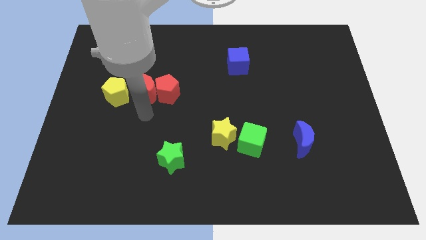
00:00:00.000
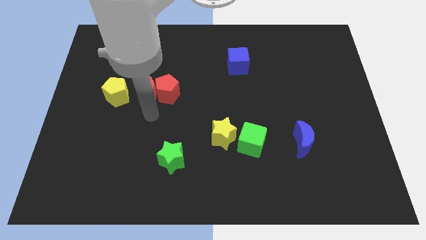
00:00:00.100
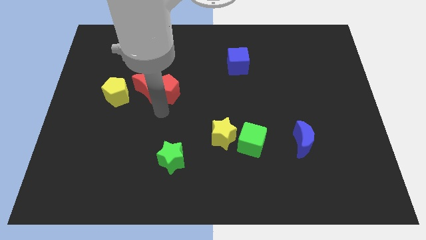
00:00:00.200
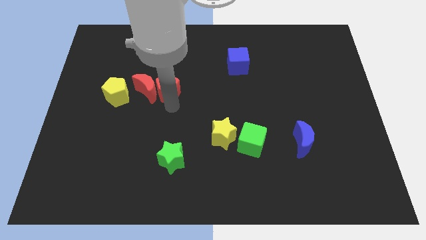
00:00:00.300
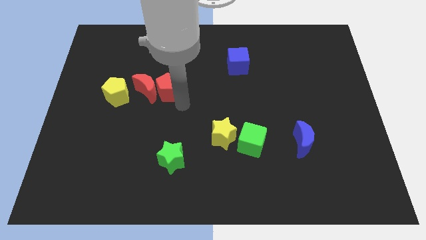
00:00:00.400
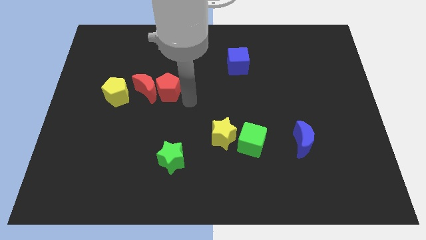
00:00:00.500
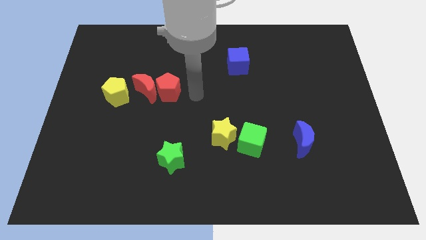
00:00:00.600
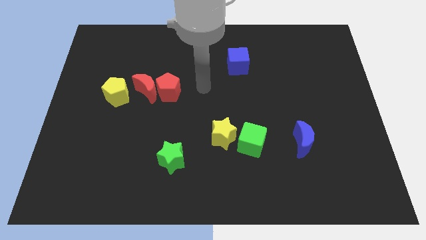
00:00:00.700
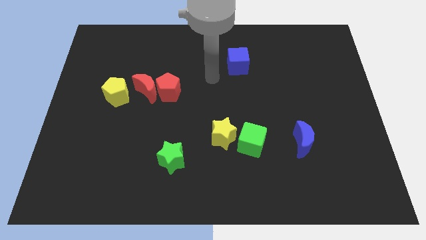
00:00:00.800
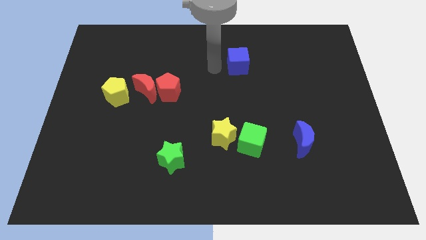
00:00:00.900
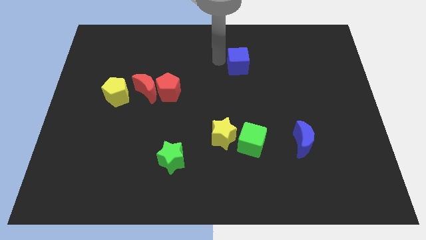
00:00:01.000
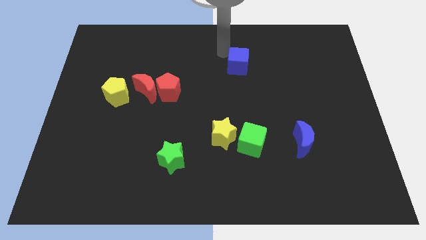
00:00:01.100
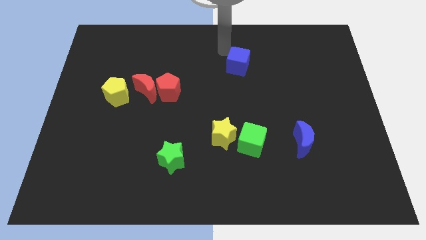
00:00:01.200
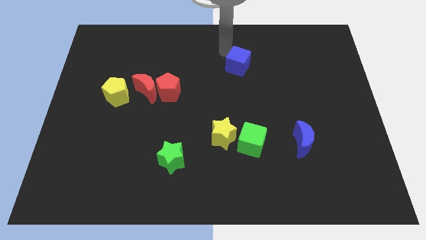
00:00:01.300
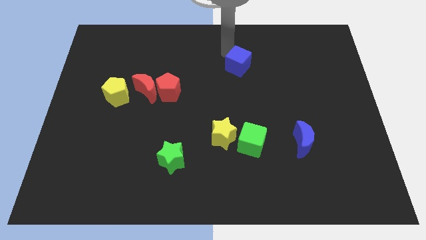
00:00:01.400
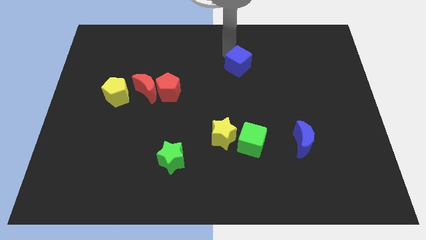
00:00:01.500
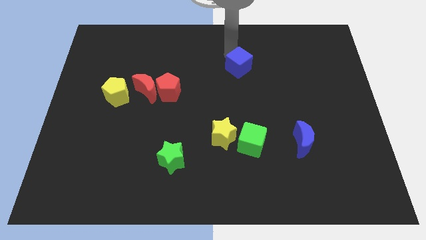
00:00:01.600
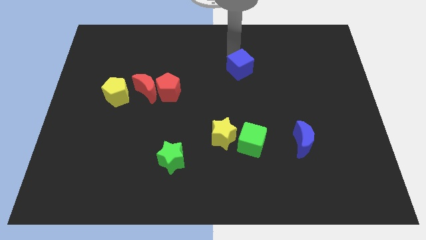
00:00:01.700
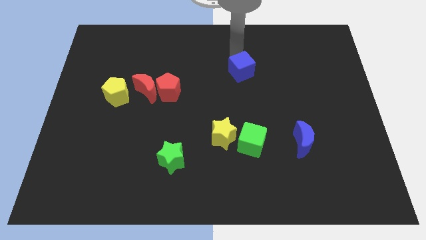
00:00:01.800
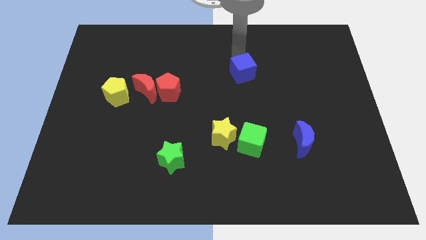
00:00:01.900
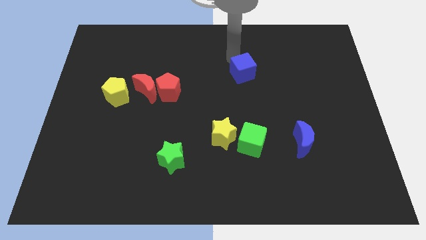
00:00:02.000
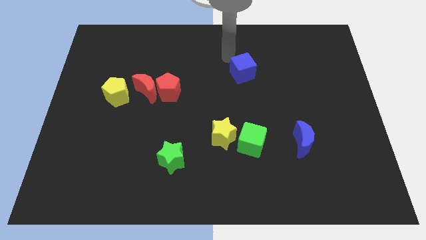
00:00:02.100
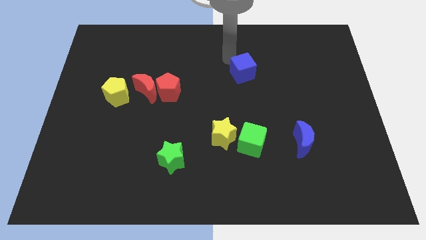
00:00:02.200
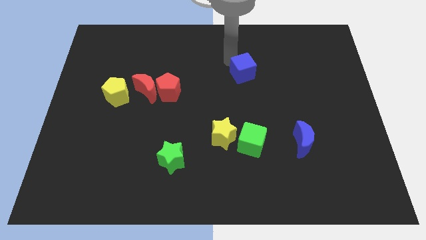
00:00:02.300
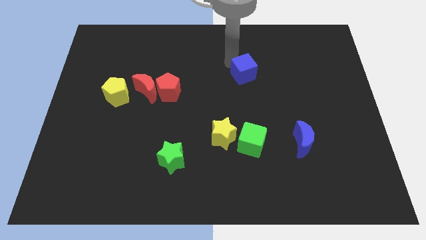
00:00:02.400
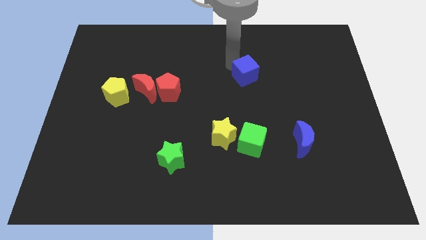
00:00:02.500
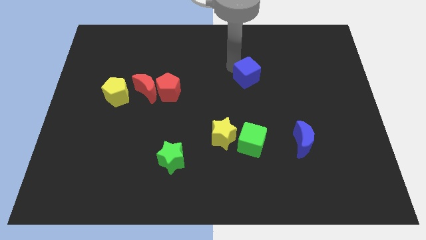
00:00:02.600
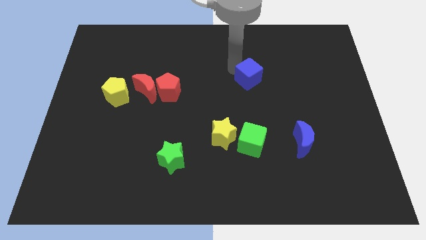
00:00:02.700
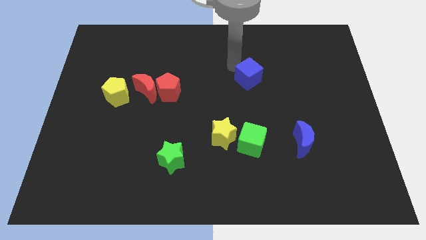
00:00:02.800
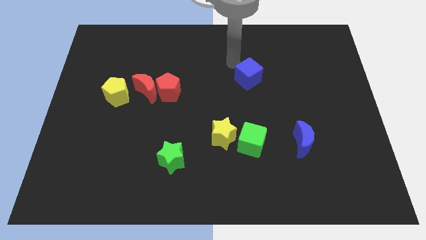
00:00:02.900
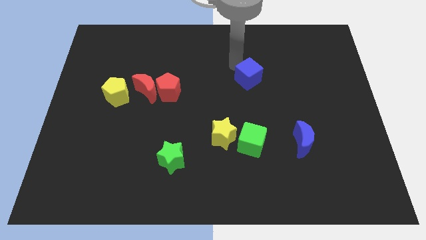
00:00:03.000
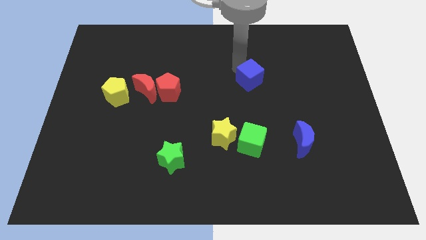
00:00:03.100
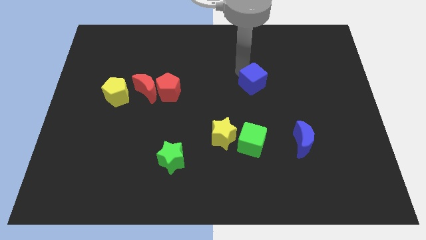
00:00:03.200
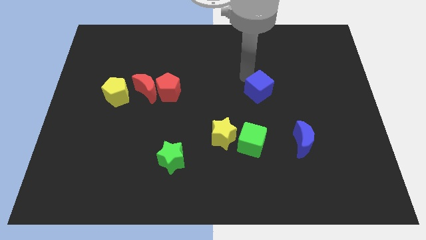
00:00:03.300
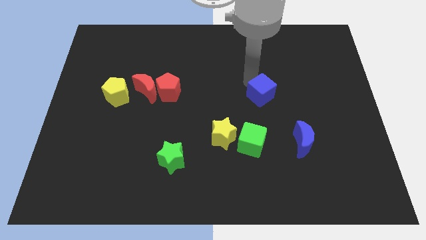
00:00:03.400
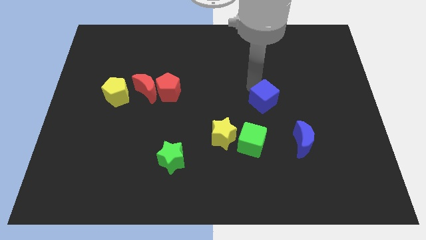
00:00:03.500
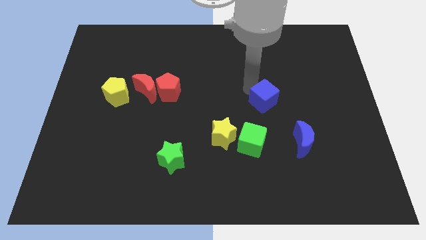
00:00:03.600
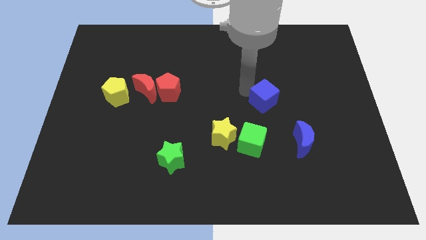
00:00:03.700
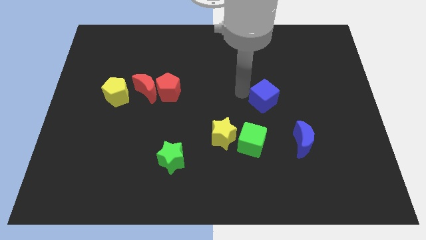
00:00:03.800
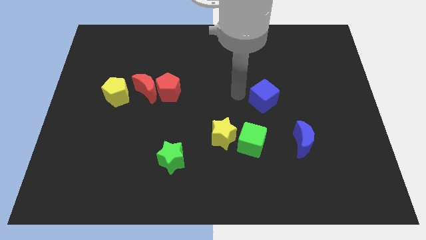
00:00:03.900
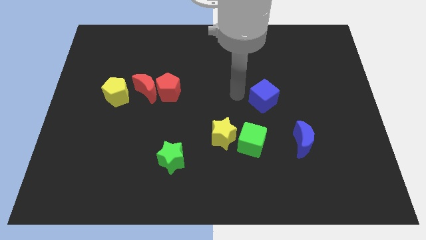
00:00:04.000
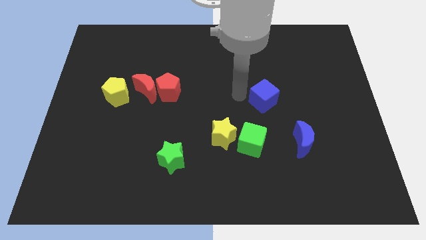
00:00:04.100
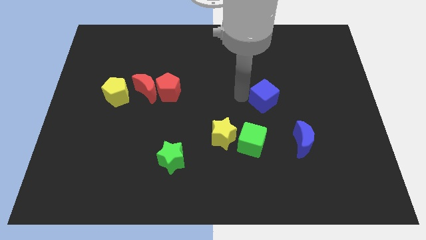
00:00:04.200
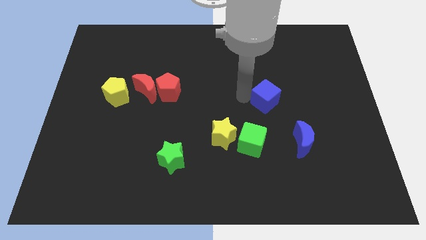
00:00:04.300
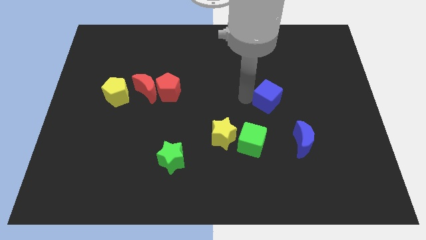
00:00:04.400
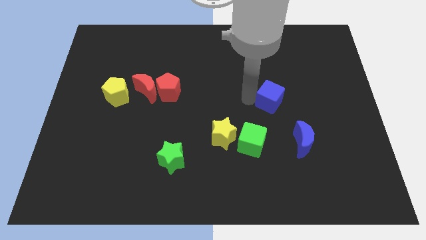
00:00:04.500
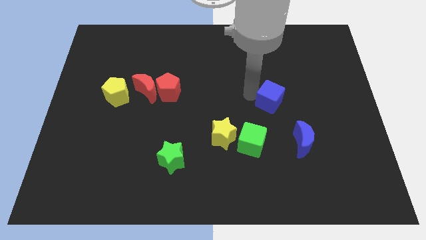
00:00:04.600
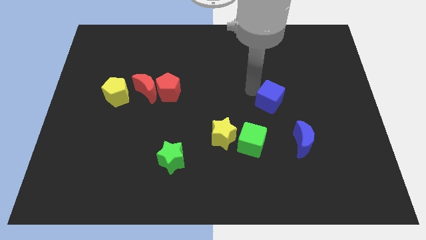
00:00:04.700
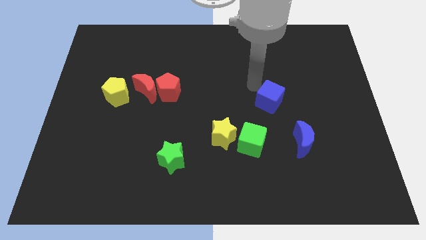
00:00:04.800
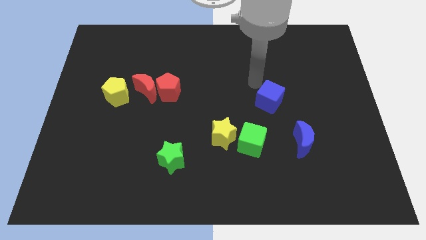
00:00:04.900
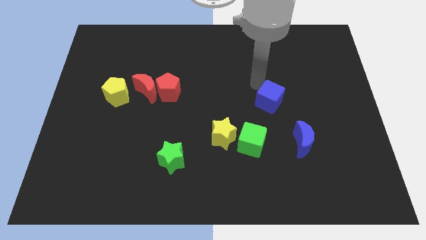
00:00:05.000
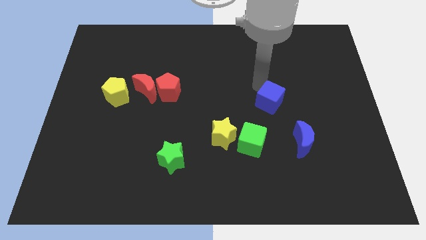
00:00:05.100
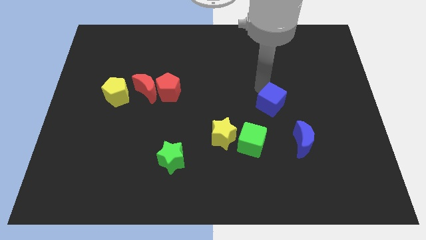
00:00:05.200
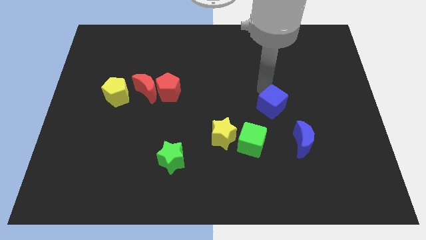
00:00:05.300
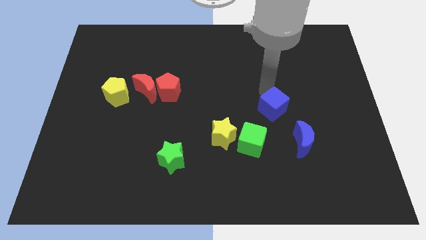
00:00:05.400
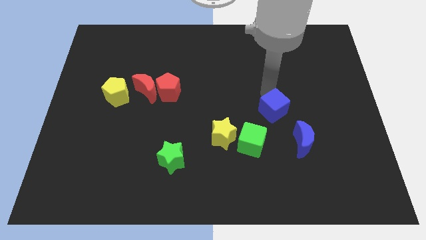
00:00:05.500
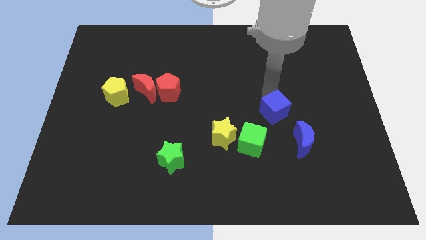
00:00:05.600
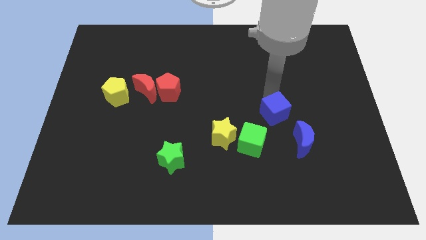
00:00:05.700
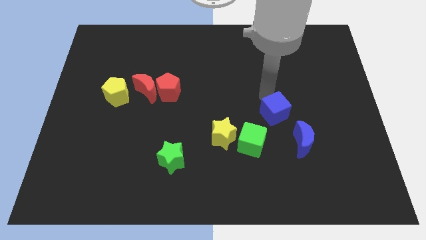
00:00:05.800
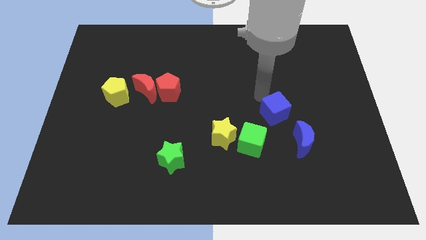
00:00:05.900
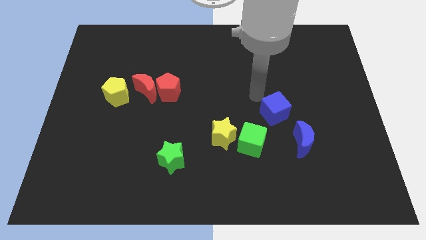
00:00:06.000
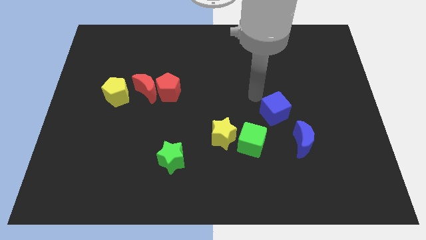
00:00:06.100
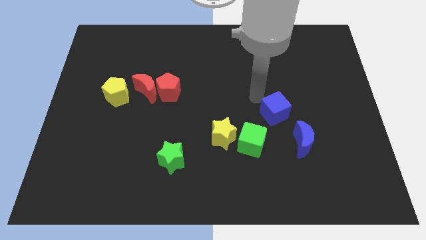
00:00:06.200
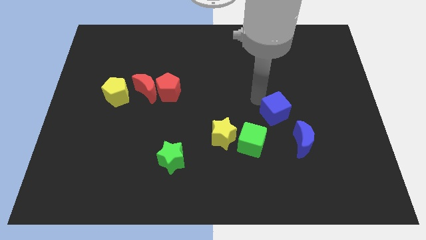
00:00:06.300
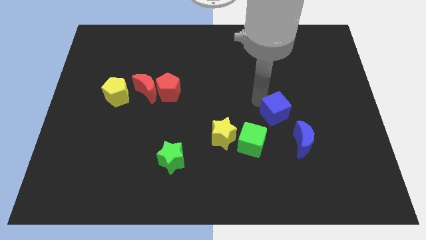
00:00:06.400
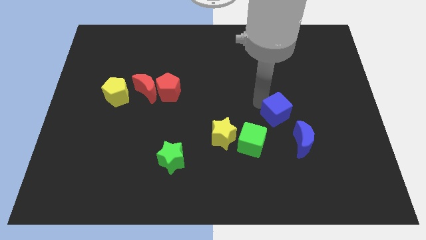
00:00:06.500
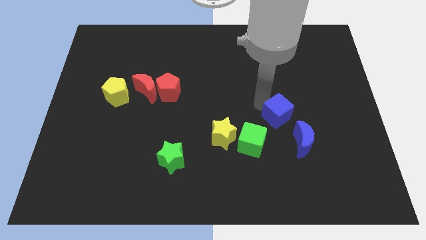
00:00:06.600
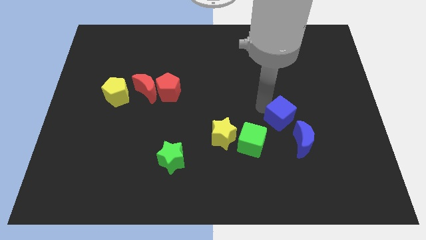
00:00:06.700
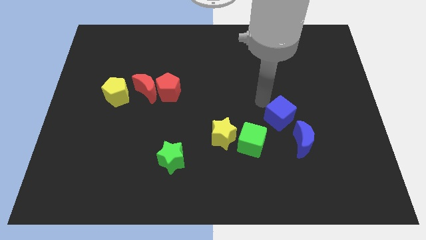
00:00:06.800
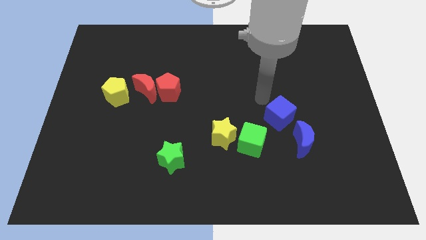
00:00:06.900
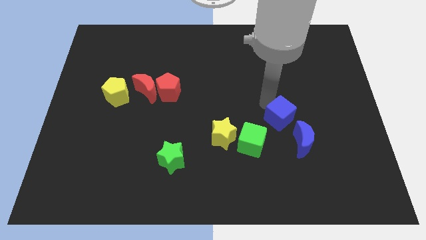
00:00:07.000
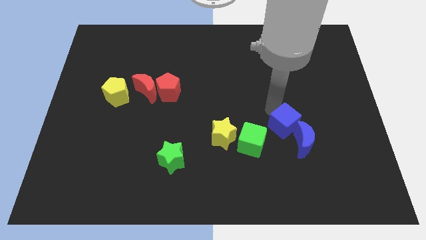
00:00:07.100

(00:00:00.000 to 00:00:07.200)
slide the blue cube close to the blue moon
